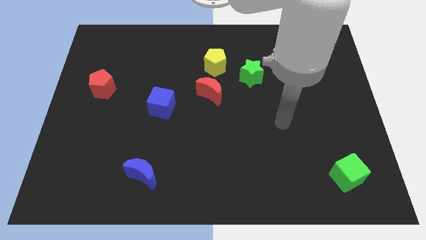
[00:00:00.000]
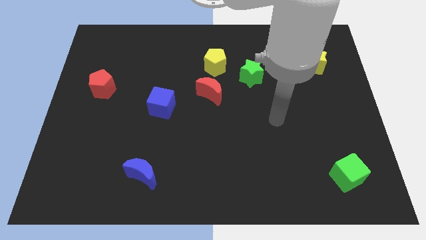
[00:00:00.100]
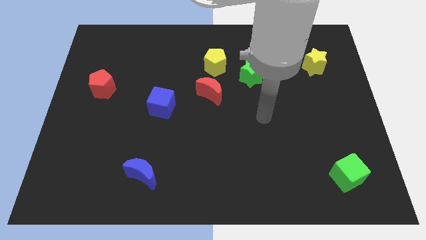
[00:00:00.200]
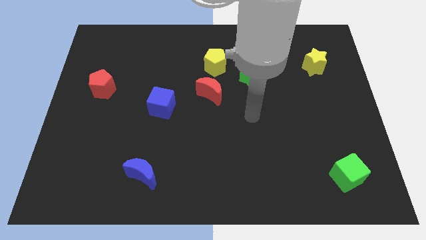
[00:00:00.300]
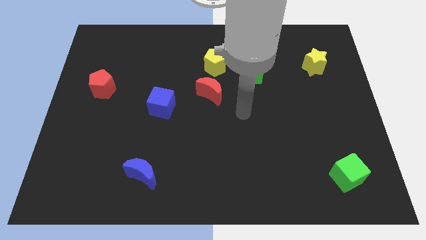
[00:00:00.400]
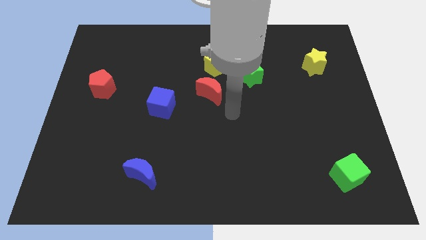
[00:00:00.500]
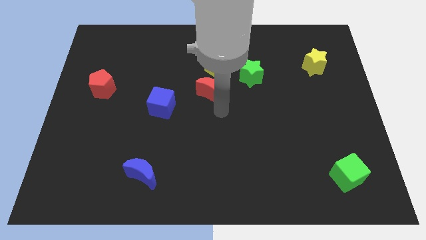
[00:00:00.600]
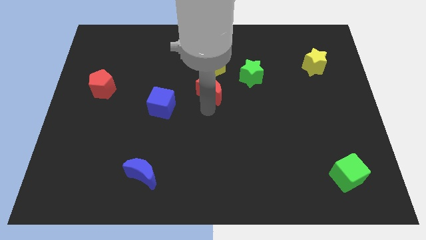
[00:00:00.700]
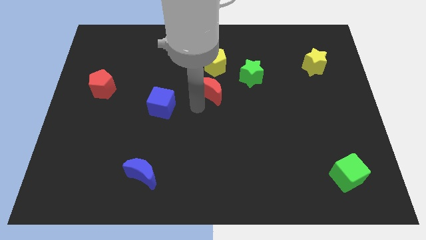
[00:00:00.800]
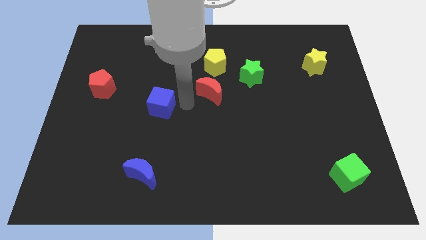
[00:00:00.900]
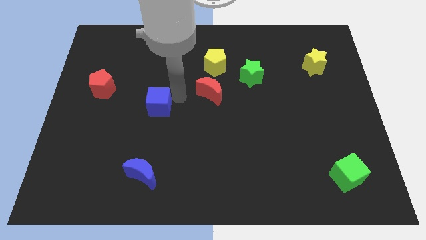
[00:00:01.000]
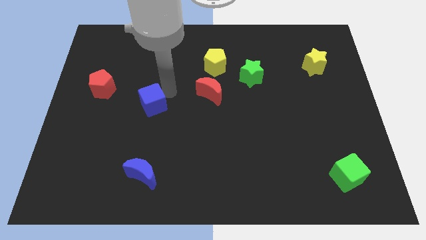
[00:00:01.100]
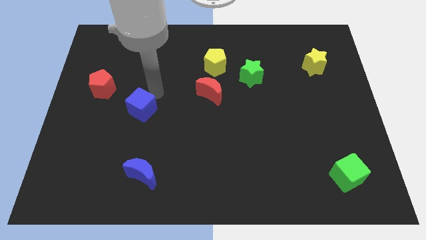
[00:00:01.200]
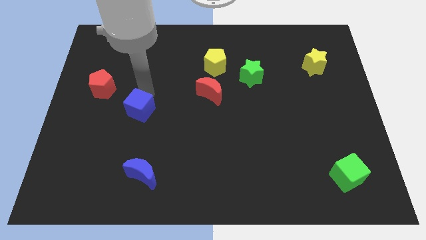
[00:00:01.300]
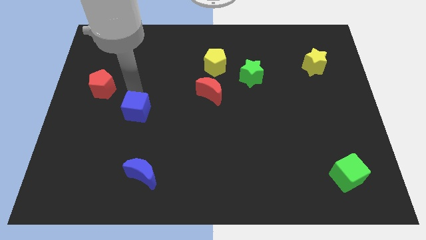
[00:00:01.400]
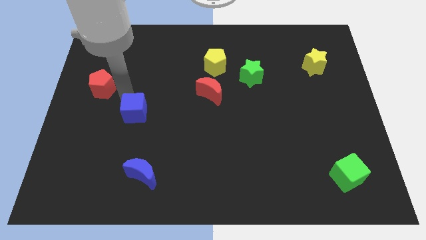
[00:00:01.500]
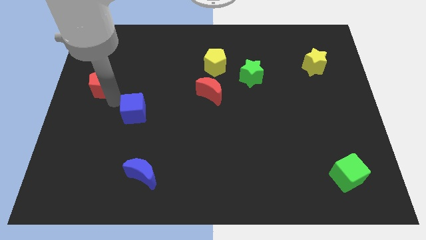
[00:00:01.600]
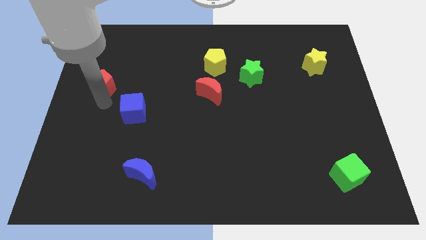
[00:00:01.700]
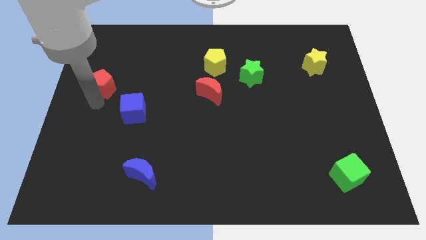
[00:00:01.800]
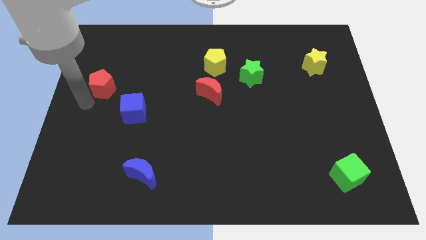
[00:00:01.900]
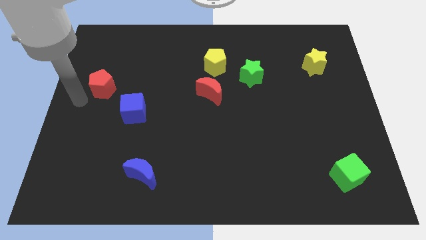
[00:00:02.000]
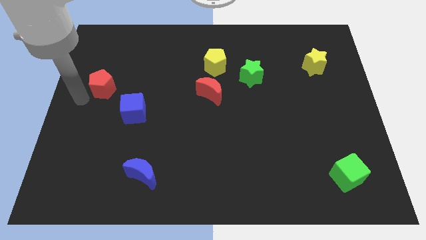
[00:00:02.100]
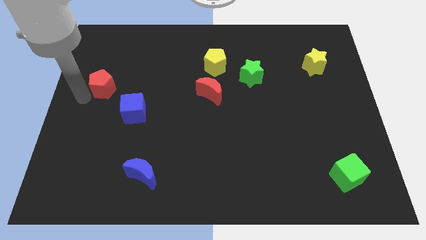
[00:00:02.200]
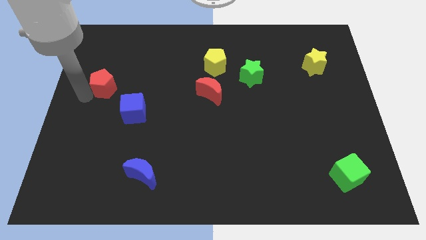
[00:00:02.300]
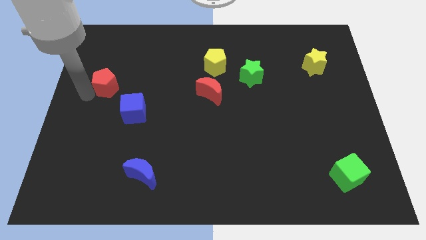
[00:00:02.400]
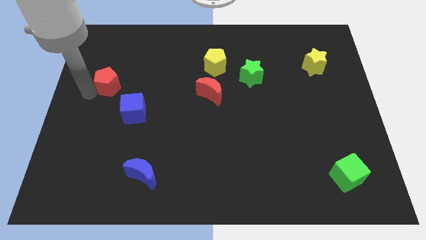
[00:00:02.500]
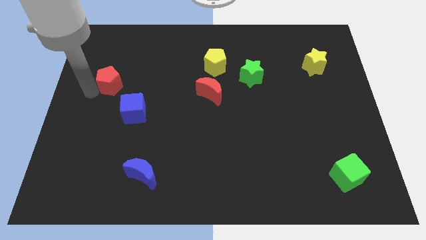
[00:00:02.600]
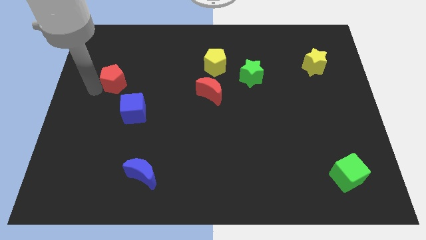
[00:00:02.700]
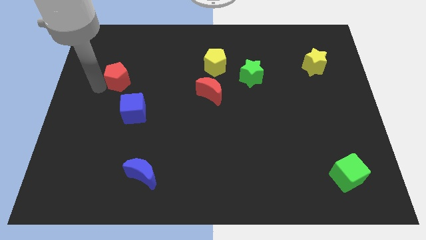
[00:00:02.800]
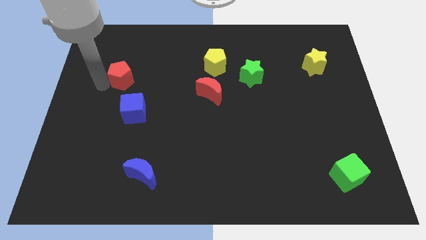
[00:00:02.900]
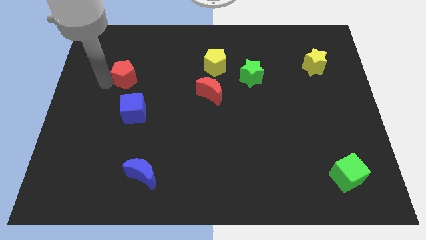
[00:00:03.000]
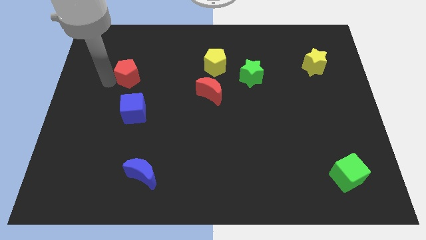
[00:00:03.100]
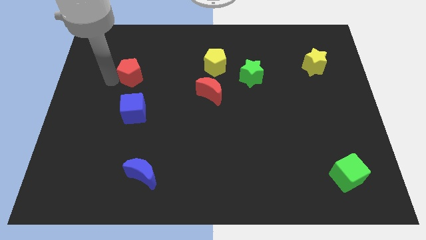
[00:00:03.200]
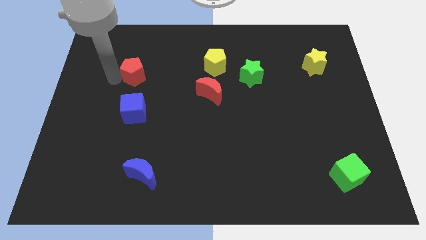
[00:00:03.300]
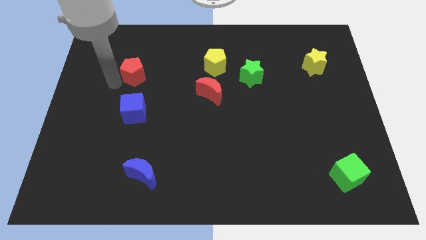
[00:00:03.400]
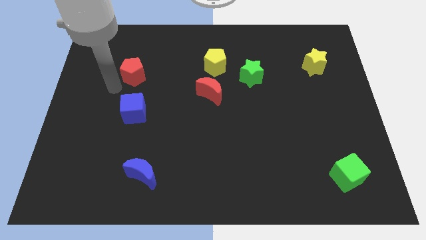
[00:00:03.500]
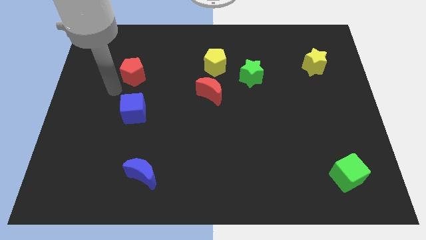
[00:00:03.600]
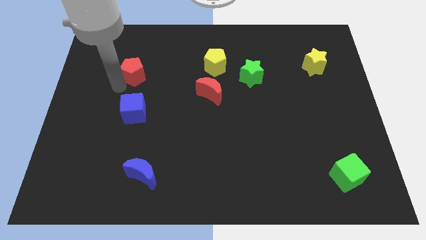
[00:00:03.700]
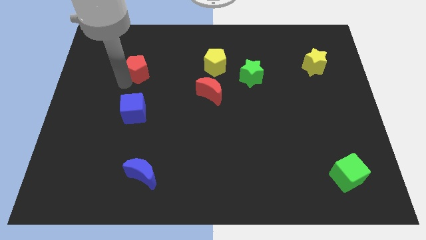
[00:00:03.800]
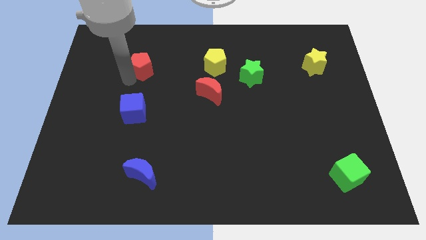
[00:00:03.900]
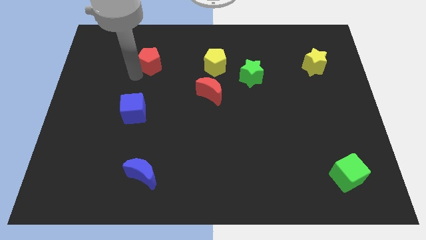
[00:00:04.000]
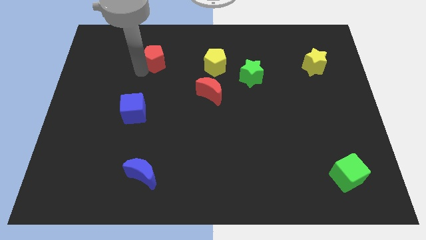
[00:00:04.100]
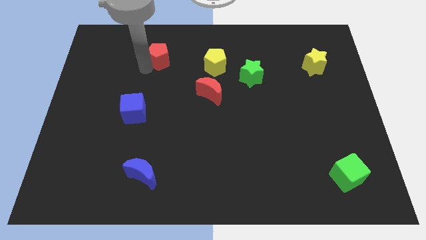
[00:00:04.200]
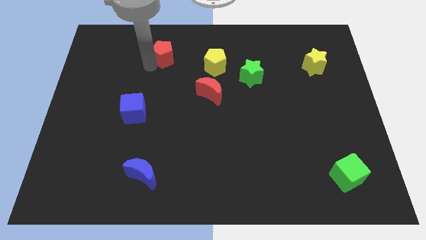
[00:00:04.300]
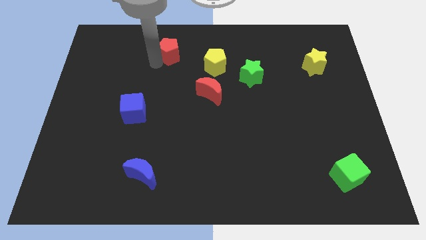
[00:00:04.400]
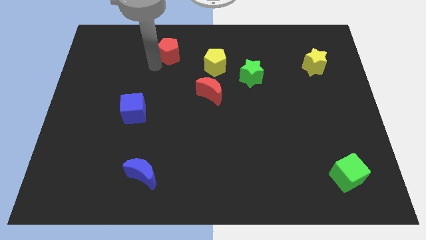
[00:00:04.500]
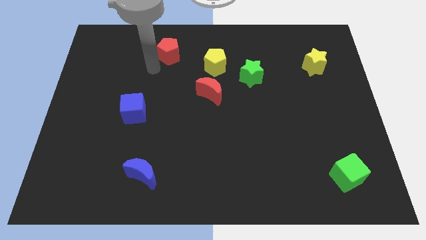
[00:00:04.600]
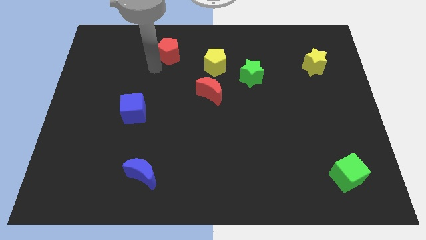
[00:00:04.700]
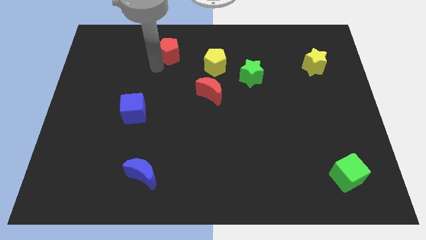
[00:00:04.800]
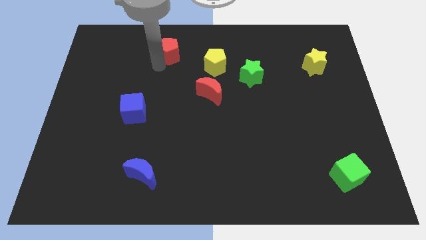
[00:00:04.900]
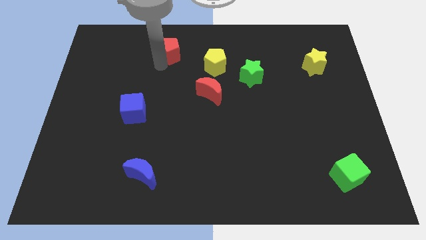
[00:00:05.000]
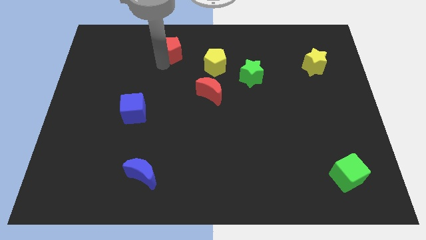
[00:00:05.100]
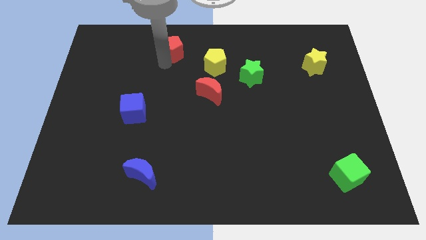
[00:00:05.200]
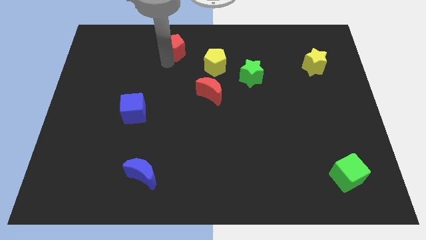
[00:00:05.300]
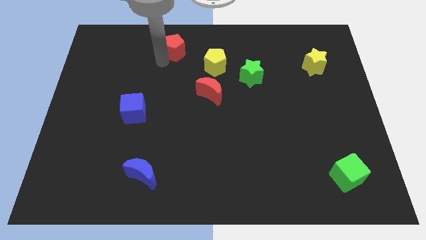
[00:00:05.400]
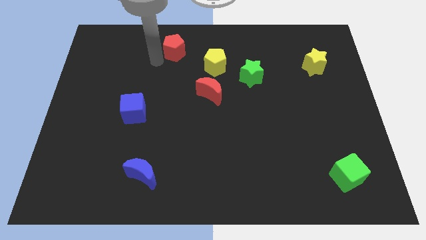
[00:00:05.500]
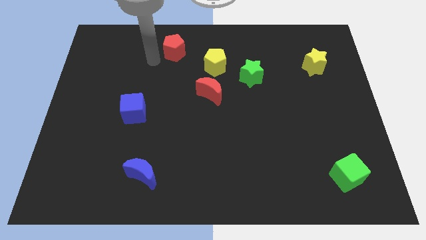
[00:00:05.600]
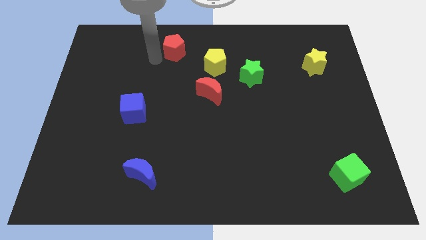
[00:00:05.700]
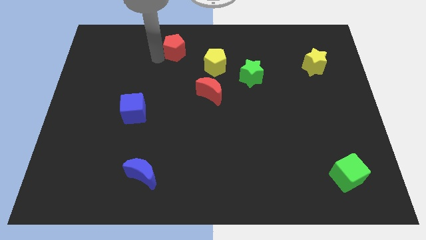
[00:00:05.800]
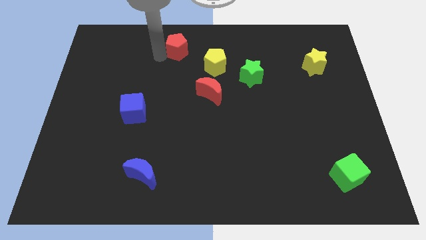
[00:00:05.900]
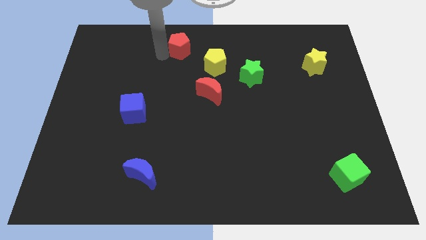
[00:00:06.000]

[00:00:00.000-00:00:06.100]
slide the red pentagon to the top side
